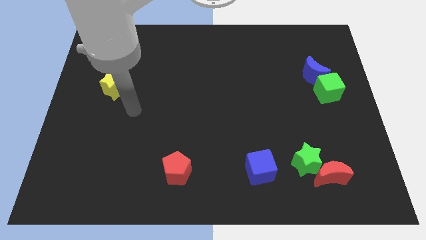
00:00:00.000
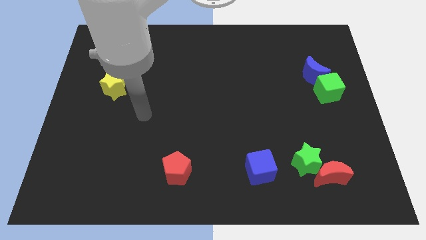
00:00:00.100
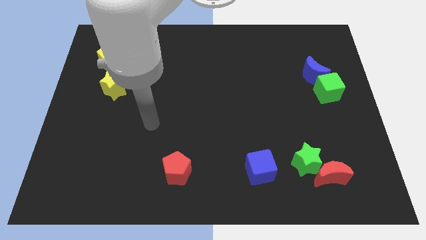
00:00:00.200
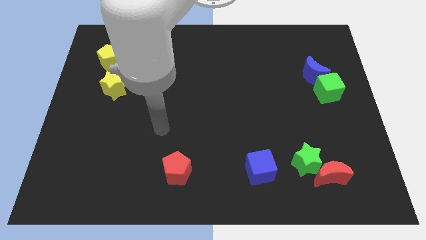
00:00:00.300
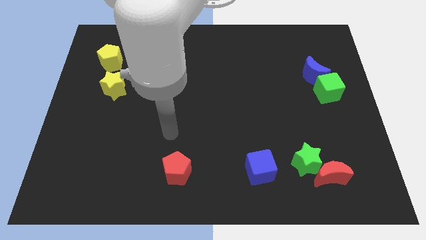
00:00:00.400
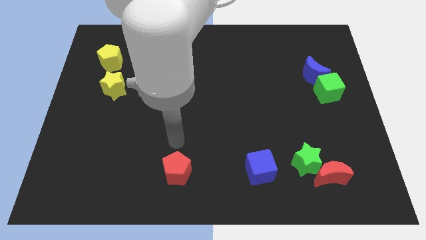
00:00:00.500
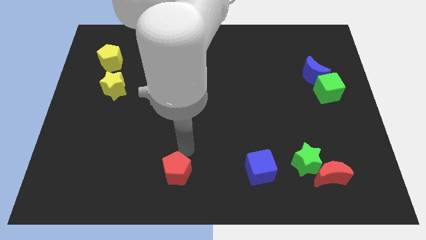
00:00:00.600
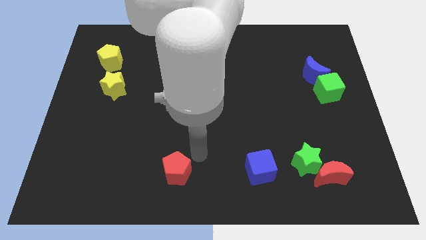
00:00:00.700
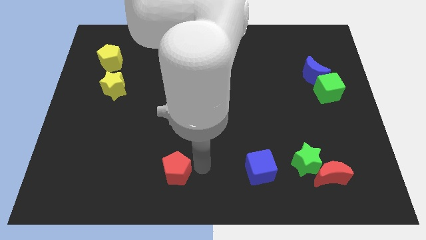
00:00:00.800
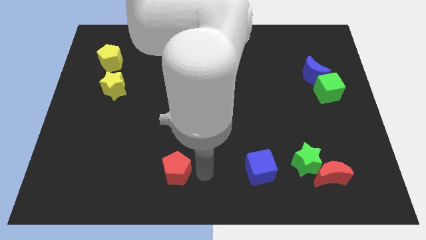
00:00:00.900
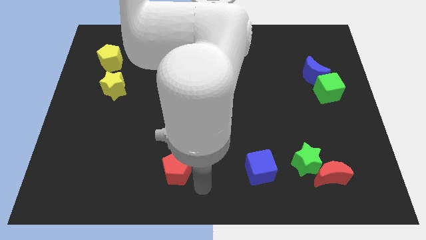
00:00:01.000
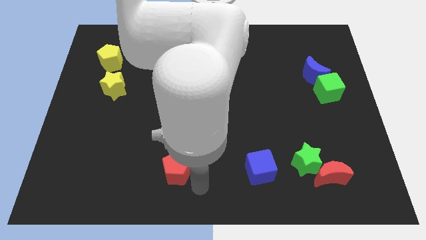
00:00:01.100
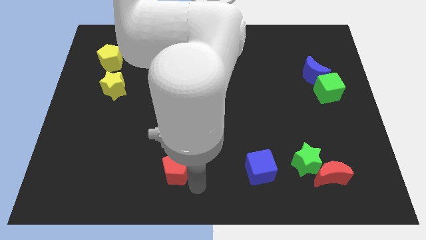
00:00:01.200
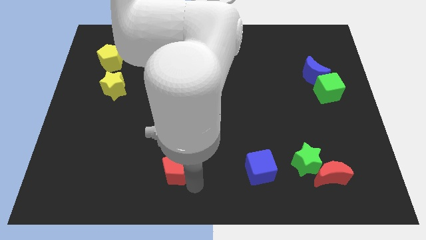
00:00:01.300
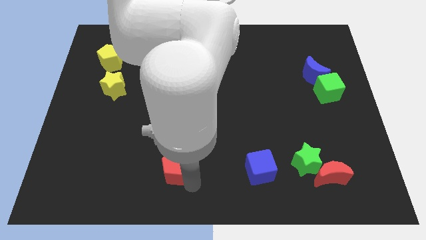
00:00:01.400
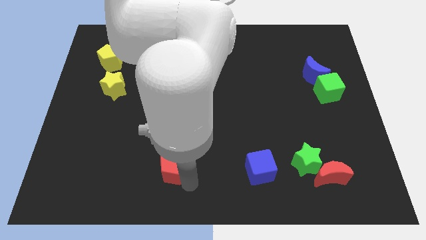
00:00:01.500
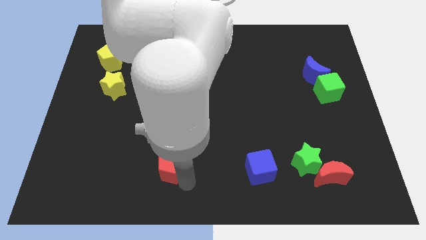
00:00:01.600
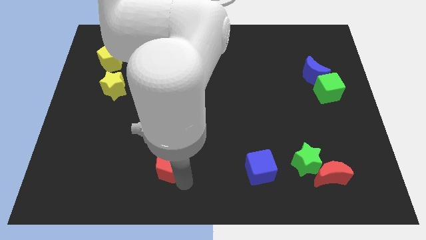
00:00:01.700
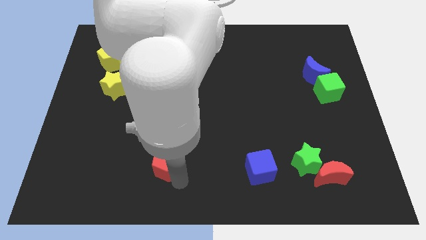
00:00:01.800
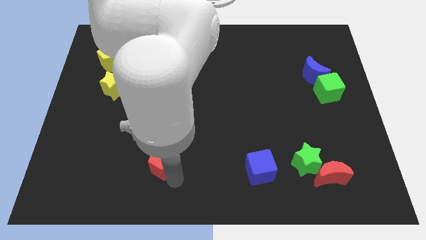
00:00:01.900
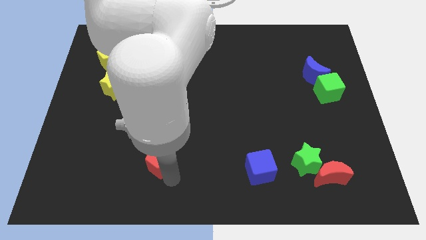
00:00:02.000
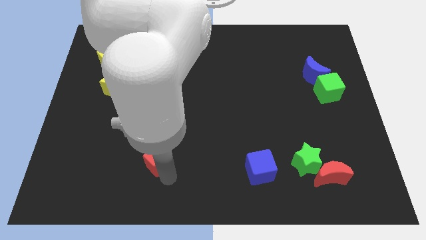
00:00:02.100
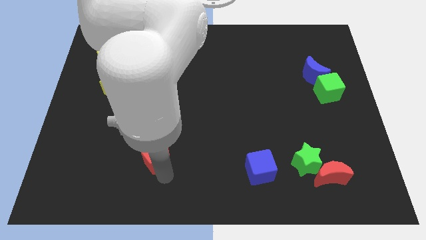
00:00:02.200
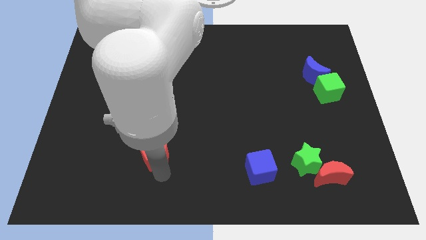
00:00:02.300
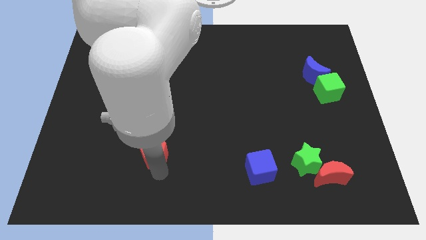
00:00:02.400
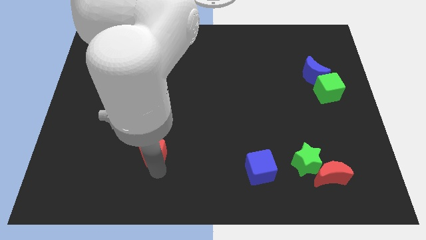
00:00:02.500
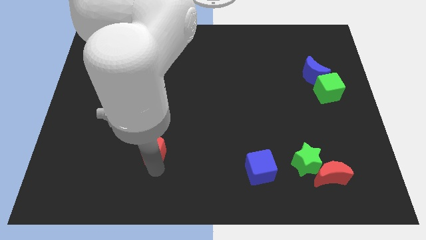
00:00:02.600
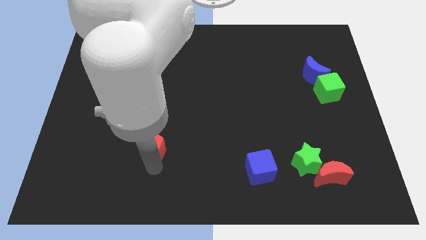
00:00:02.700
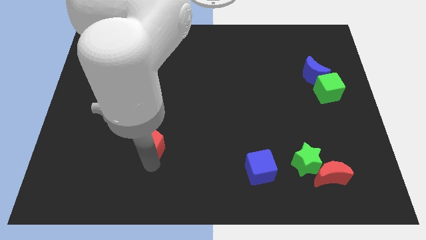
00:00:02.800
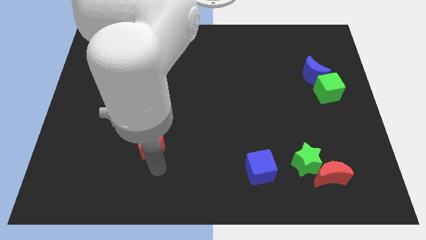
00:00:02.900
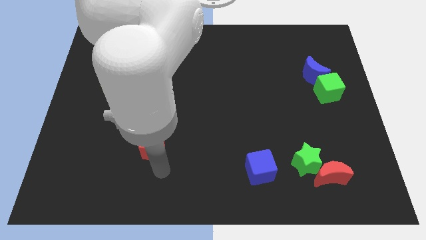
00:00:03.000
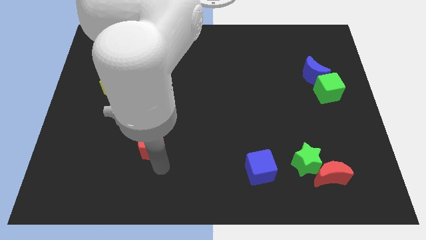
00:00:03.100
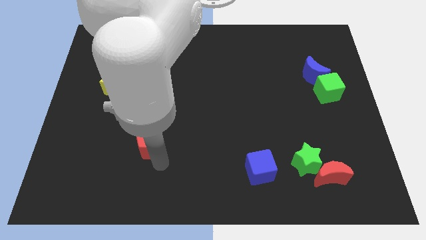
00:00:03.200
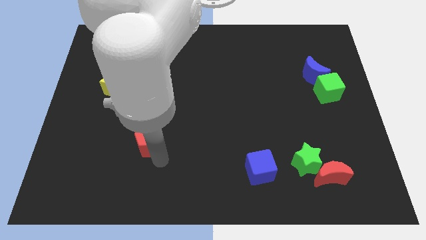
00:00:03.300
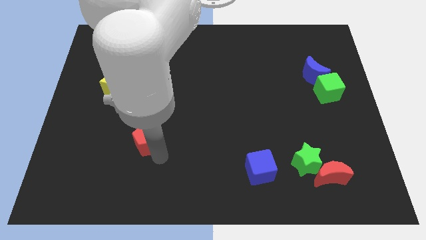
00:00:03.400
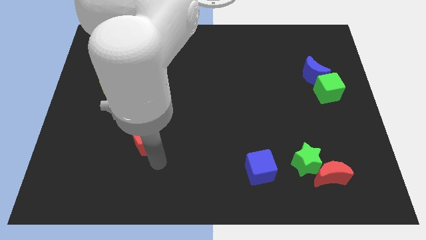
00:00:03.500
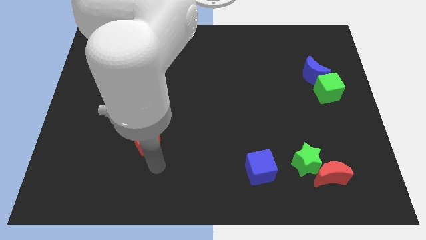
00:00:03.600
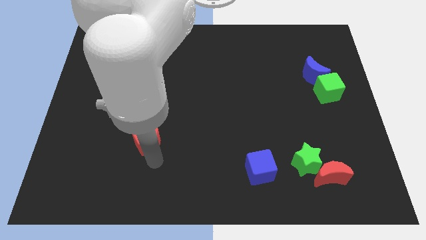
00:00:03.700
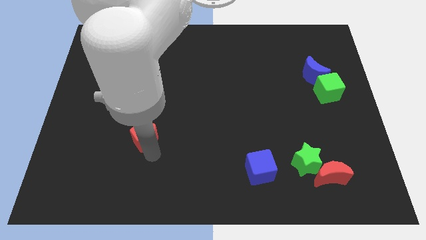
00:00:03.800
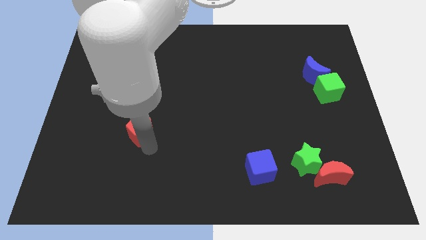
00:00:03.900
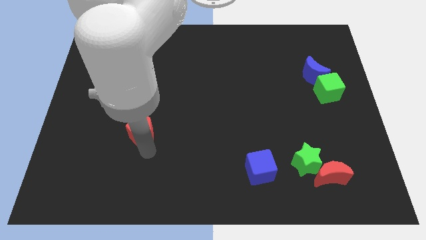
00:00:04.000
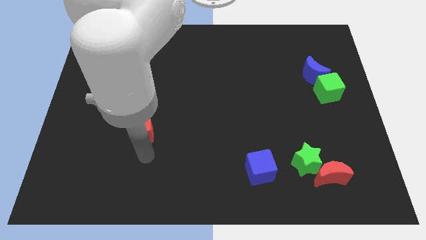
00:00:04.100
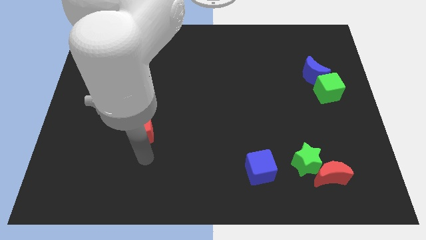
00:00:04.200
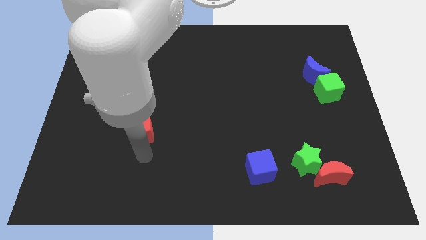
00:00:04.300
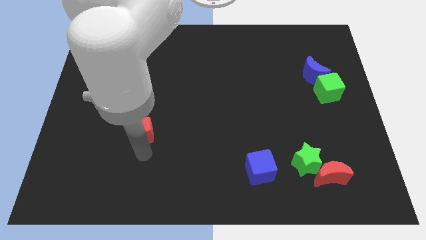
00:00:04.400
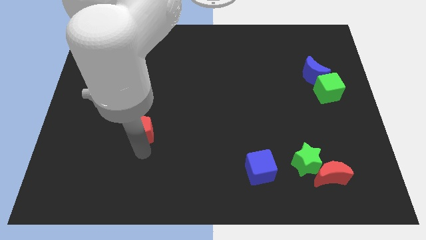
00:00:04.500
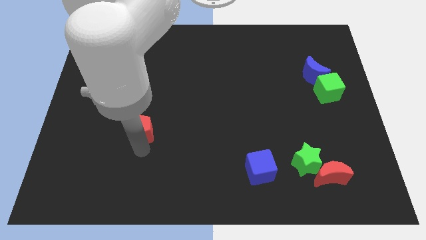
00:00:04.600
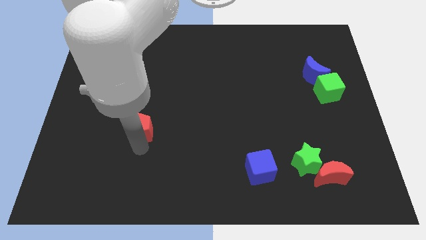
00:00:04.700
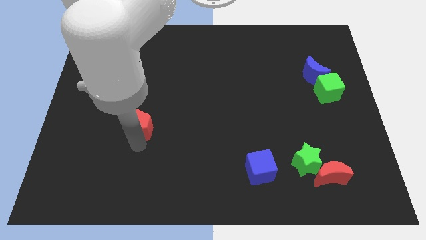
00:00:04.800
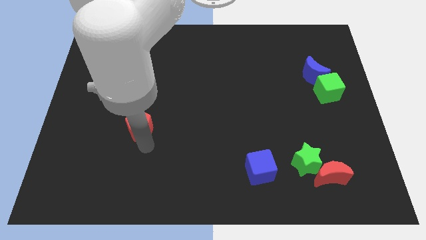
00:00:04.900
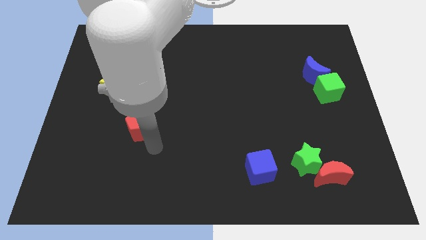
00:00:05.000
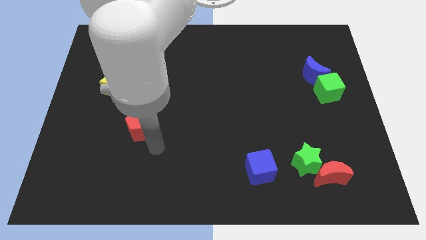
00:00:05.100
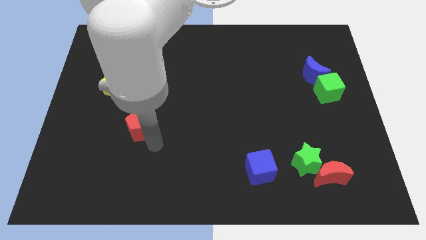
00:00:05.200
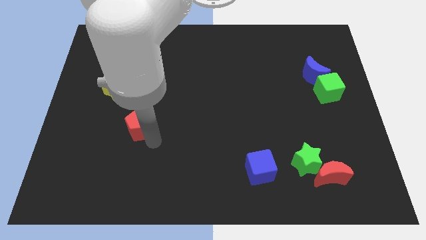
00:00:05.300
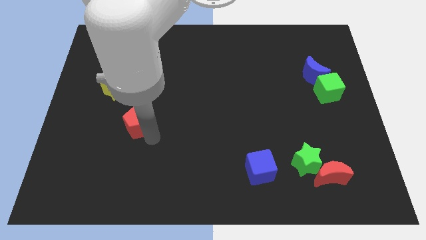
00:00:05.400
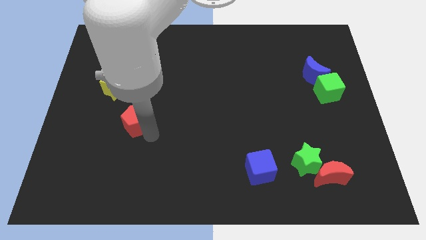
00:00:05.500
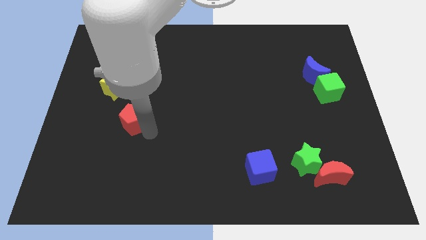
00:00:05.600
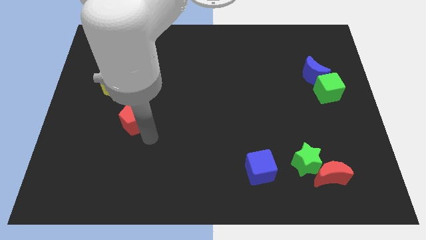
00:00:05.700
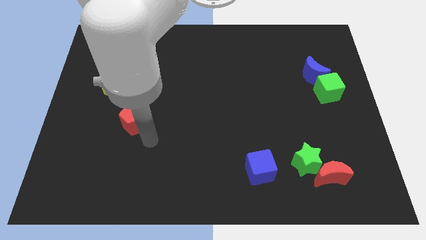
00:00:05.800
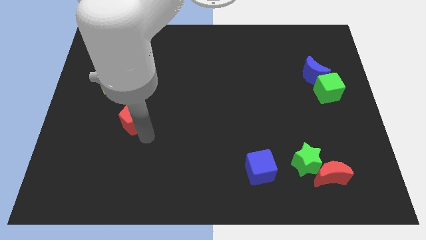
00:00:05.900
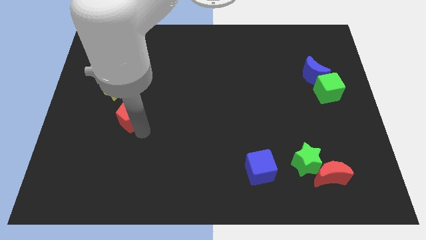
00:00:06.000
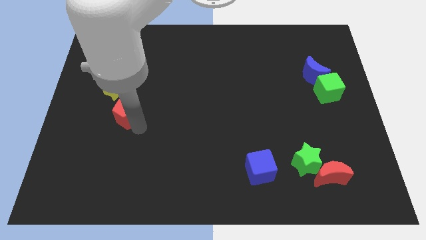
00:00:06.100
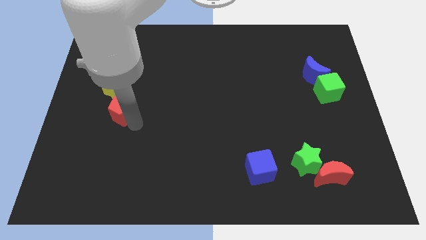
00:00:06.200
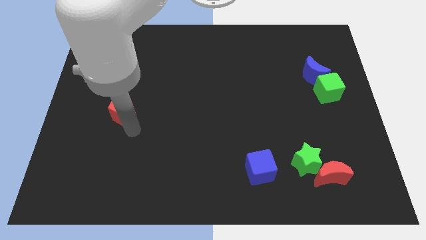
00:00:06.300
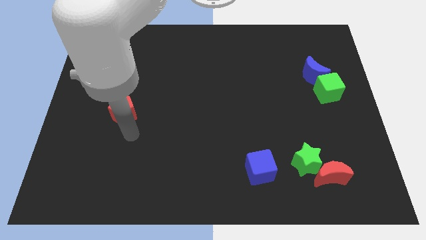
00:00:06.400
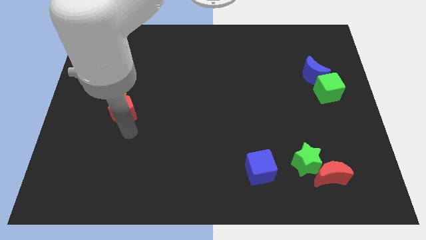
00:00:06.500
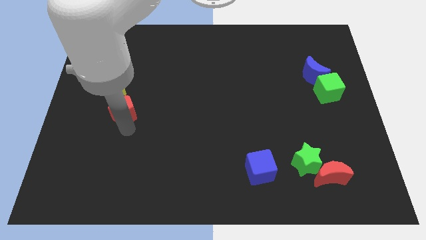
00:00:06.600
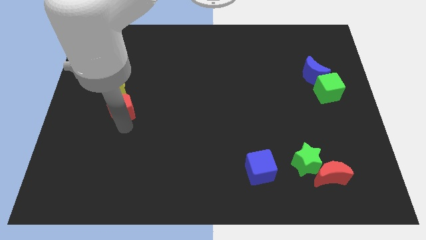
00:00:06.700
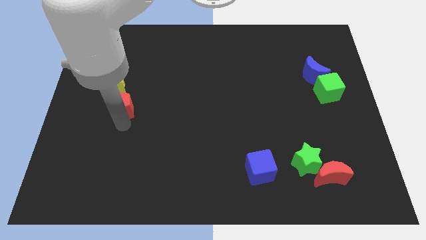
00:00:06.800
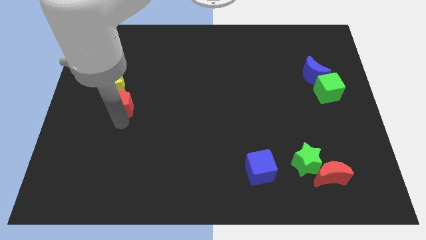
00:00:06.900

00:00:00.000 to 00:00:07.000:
slide the red pentagon towards the yellow star

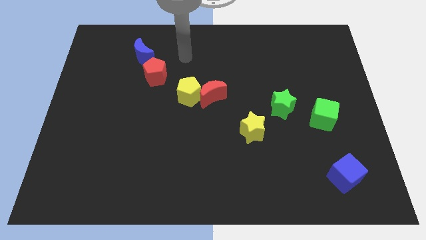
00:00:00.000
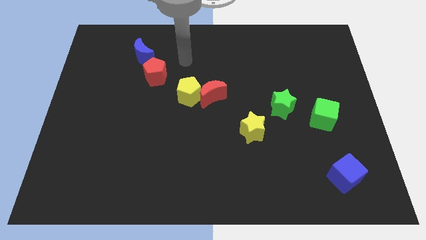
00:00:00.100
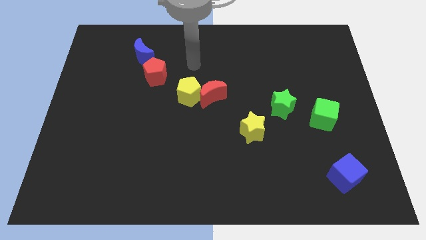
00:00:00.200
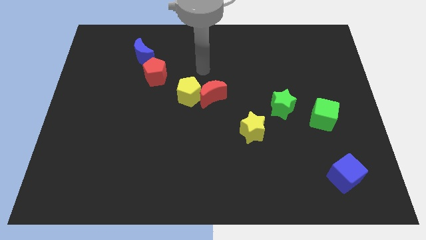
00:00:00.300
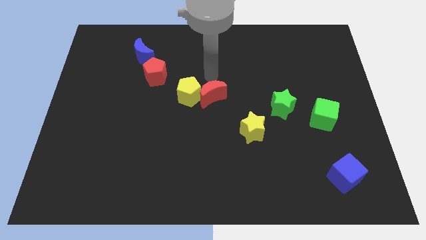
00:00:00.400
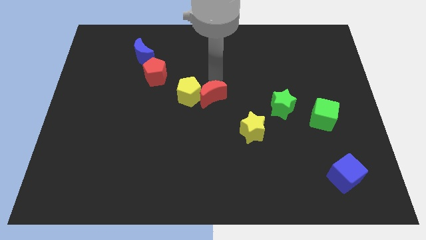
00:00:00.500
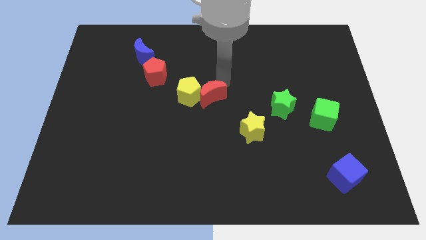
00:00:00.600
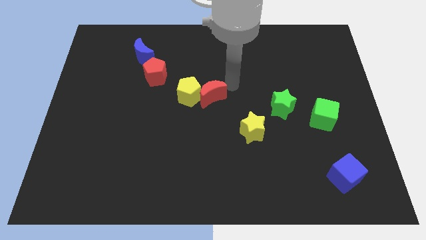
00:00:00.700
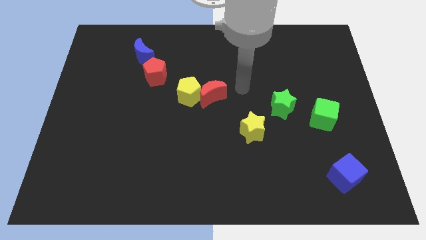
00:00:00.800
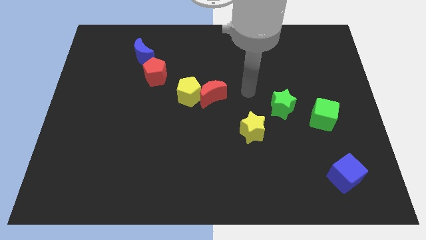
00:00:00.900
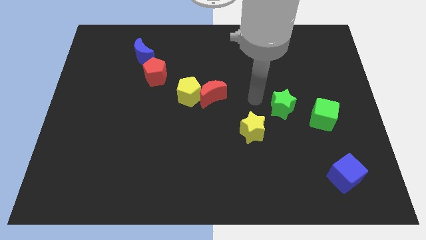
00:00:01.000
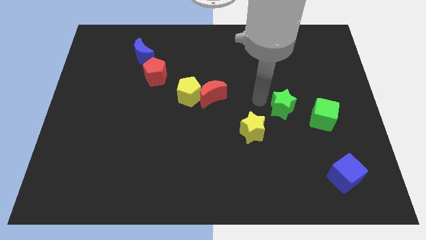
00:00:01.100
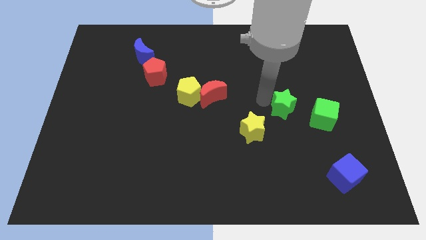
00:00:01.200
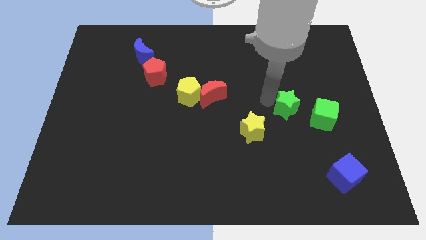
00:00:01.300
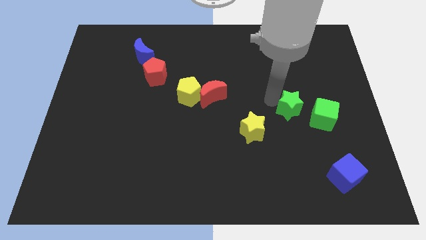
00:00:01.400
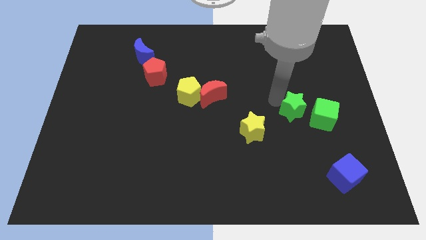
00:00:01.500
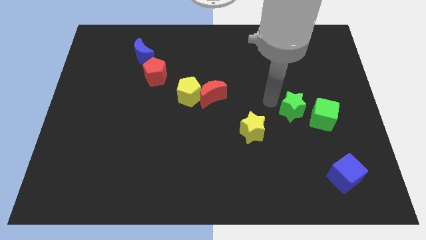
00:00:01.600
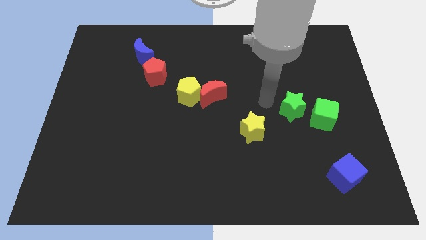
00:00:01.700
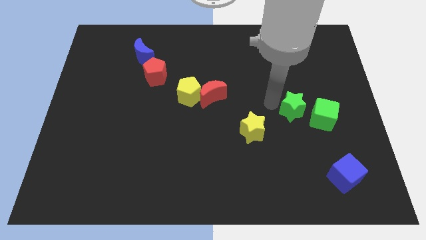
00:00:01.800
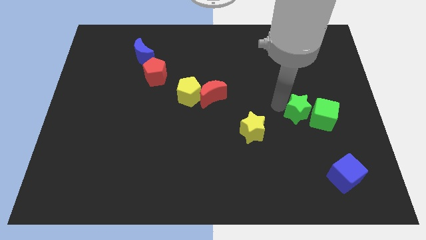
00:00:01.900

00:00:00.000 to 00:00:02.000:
slide the green star towards the green cube
